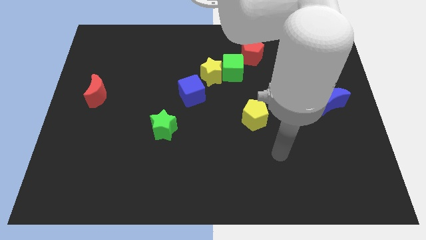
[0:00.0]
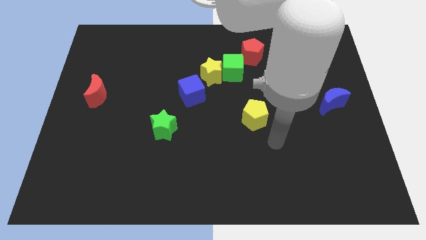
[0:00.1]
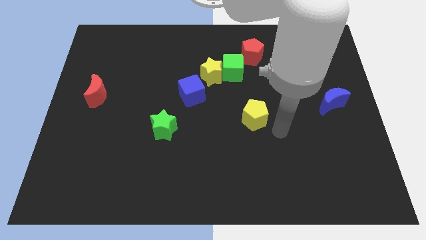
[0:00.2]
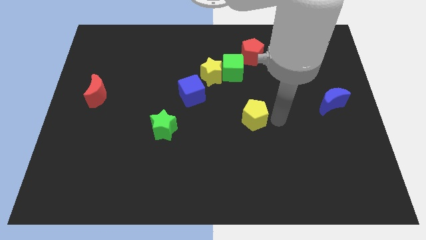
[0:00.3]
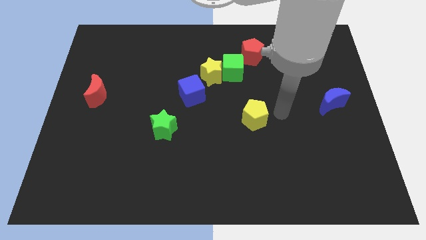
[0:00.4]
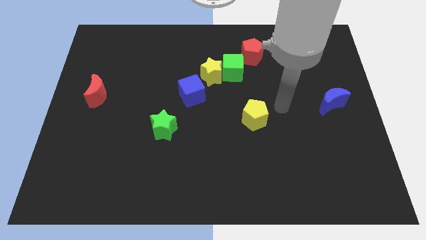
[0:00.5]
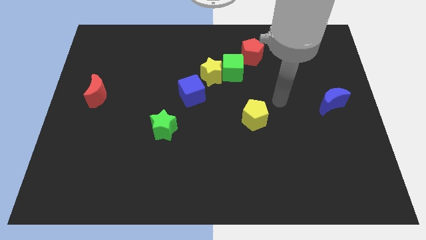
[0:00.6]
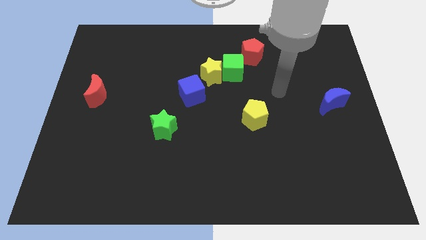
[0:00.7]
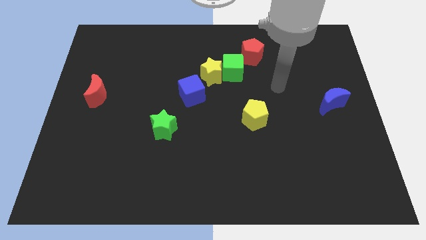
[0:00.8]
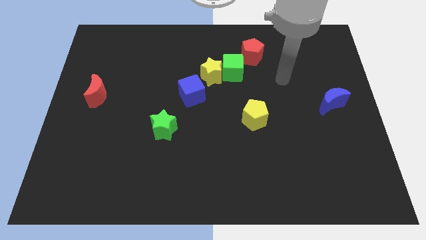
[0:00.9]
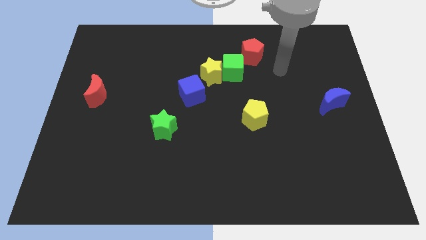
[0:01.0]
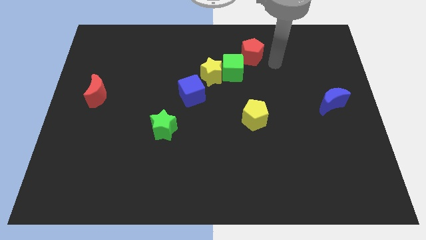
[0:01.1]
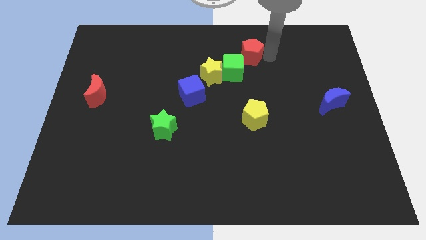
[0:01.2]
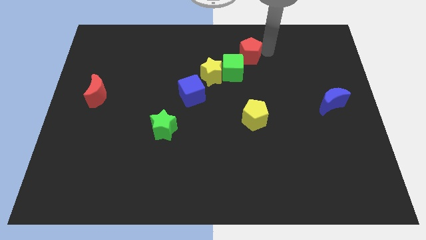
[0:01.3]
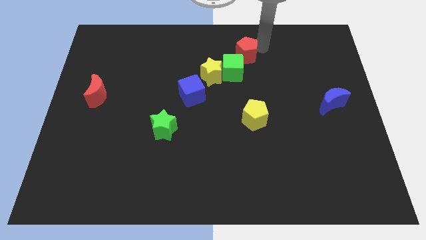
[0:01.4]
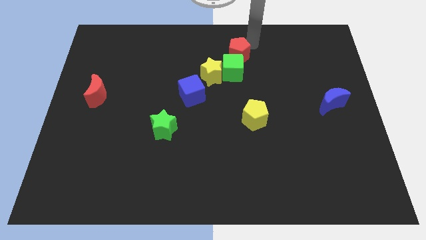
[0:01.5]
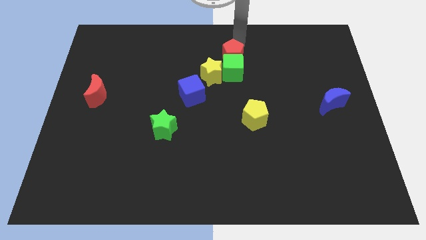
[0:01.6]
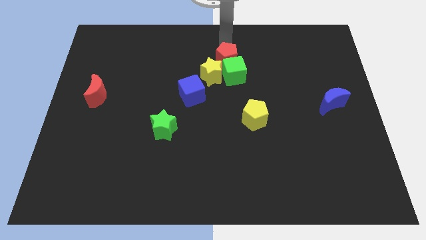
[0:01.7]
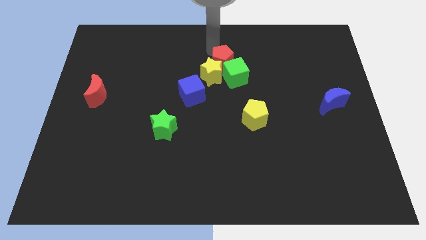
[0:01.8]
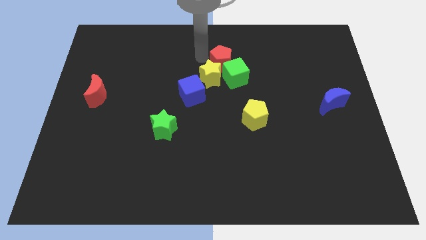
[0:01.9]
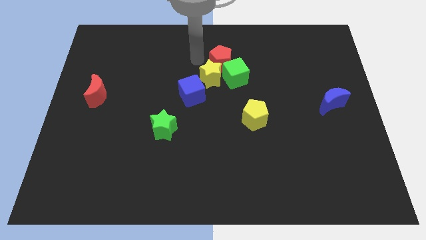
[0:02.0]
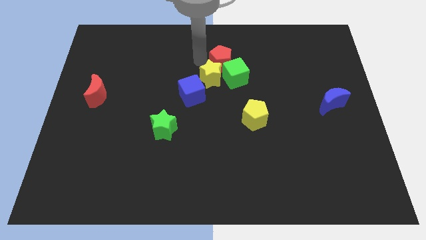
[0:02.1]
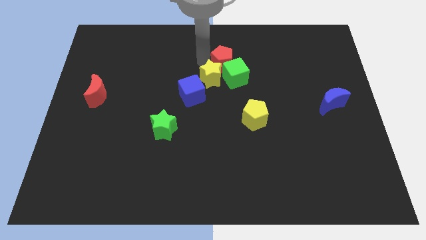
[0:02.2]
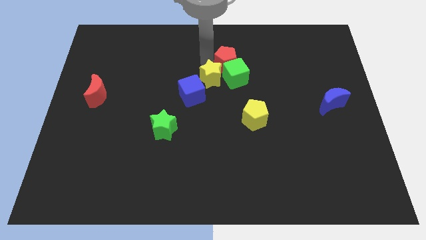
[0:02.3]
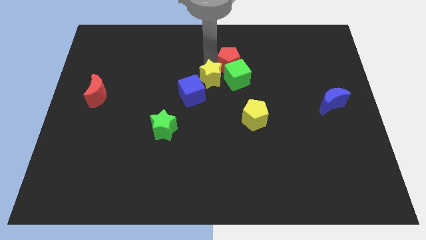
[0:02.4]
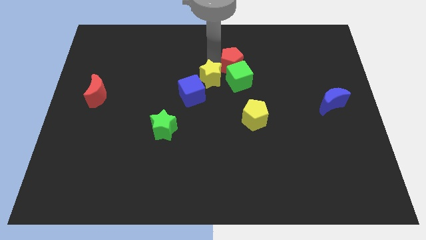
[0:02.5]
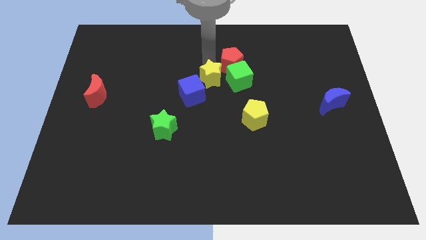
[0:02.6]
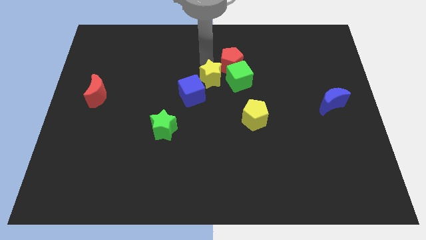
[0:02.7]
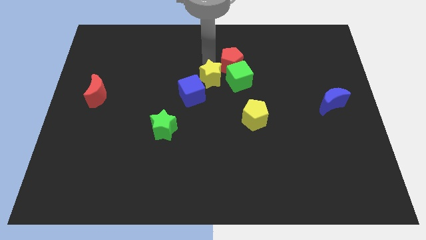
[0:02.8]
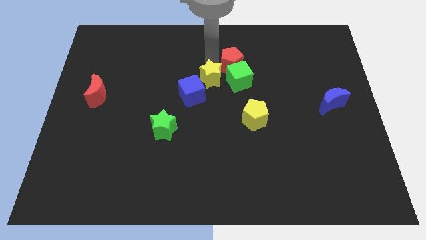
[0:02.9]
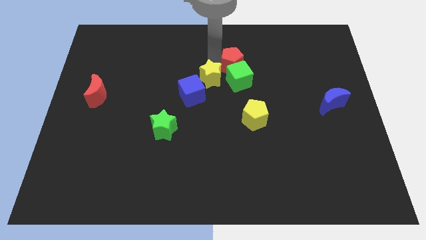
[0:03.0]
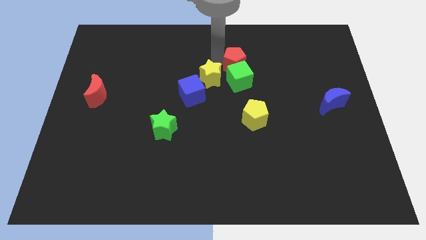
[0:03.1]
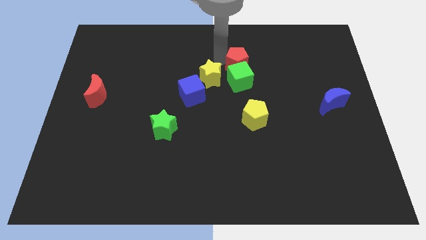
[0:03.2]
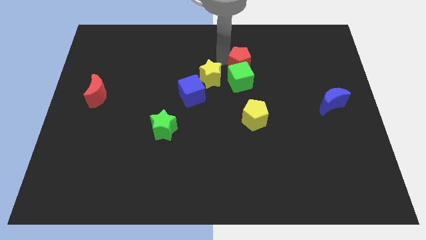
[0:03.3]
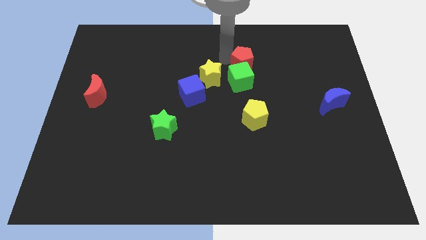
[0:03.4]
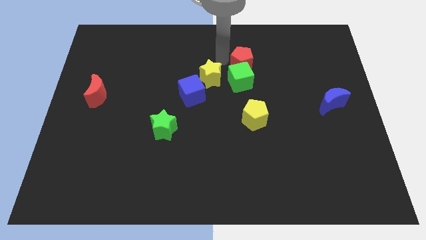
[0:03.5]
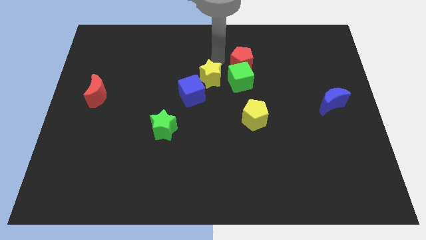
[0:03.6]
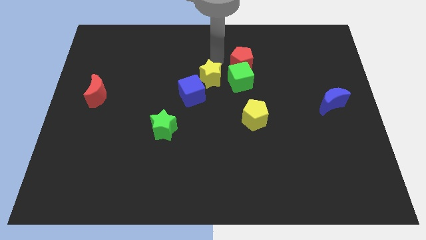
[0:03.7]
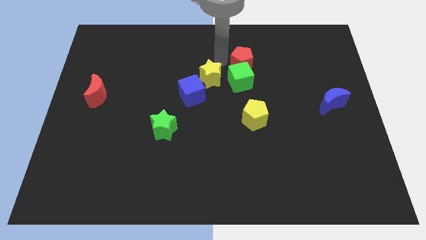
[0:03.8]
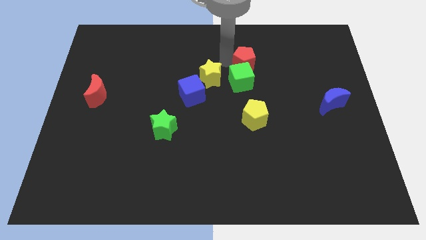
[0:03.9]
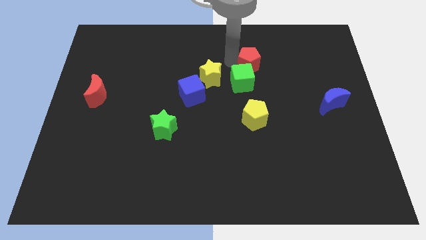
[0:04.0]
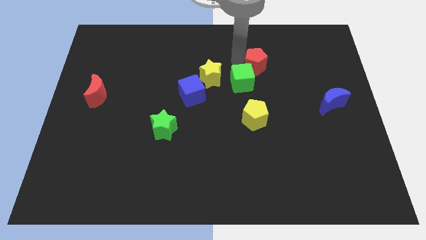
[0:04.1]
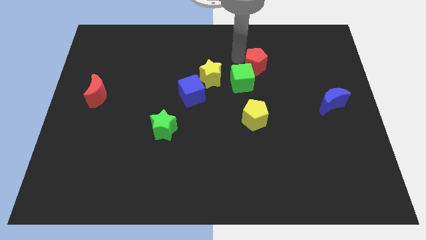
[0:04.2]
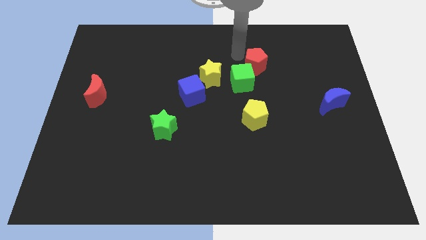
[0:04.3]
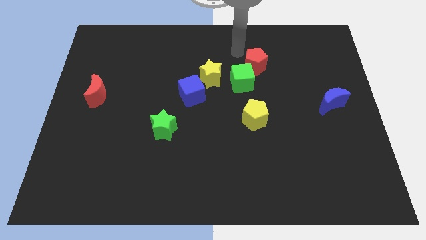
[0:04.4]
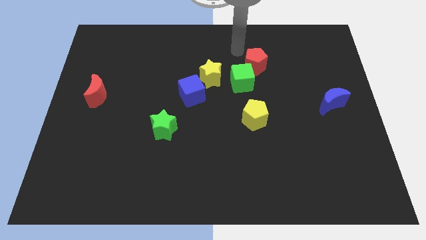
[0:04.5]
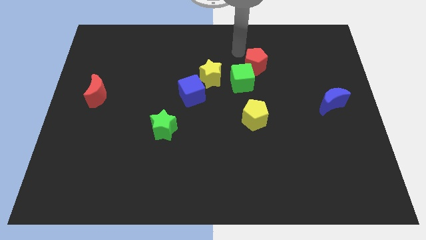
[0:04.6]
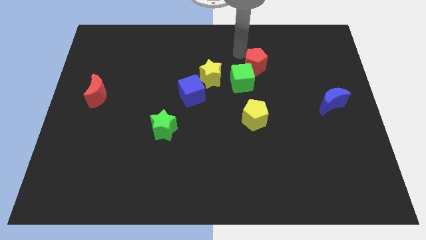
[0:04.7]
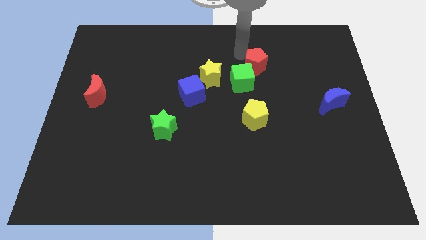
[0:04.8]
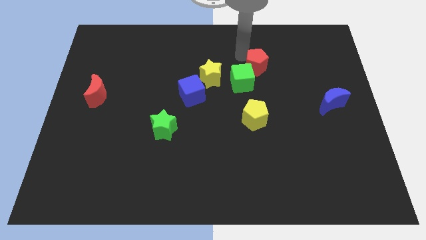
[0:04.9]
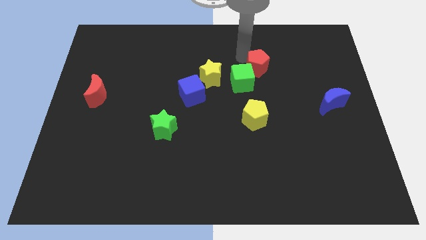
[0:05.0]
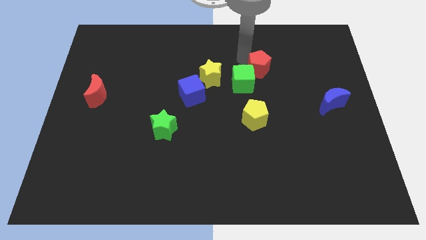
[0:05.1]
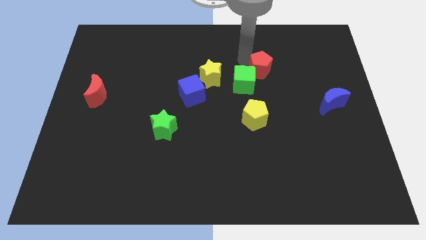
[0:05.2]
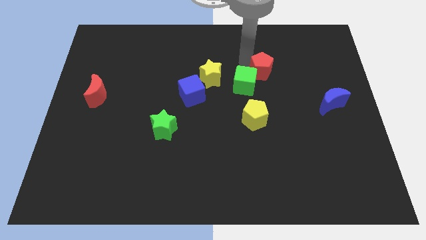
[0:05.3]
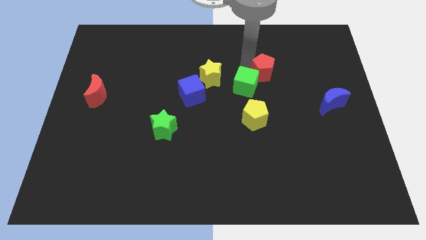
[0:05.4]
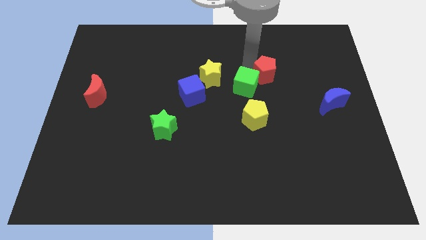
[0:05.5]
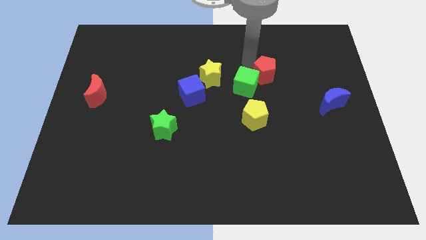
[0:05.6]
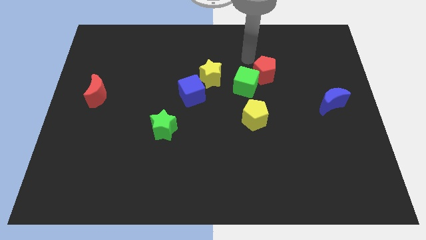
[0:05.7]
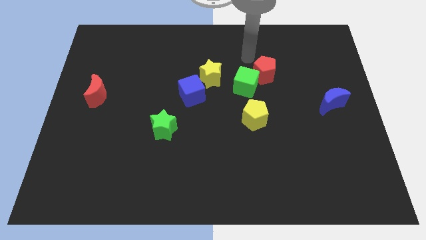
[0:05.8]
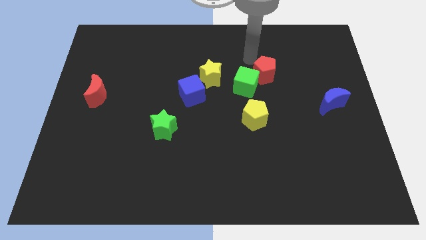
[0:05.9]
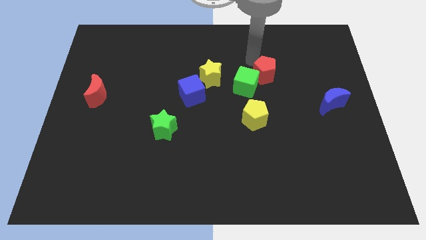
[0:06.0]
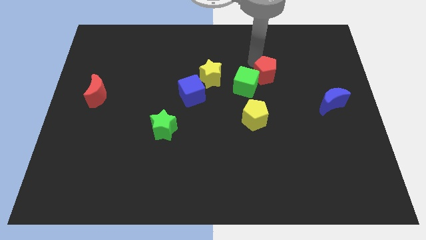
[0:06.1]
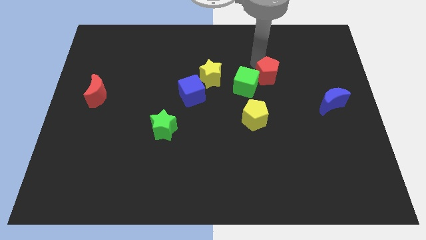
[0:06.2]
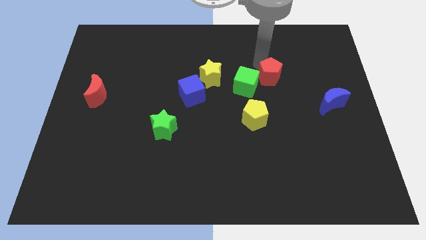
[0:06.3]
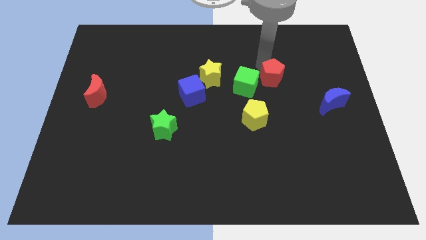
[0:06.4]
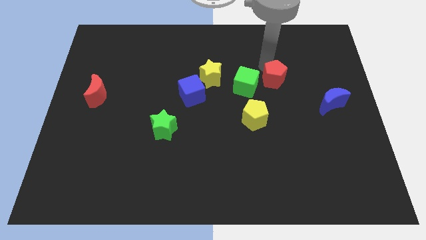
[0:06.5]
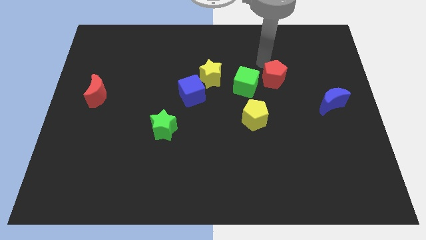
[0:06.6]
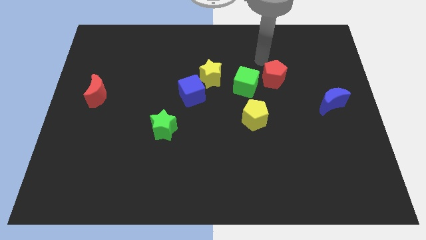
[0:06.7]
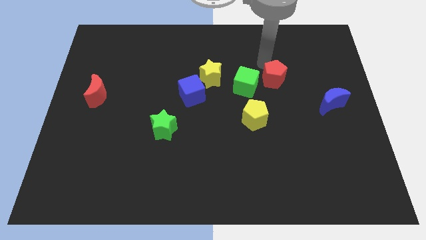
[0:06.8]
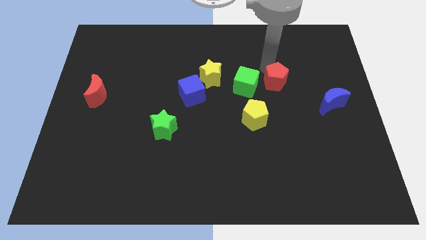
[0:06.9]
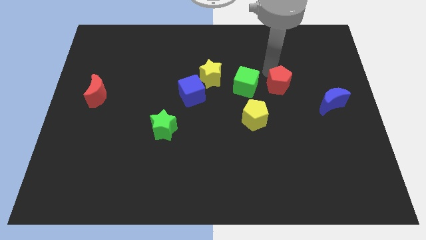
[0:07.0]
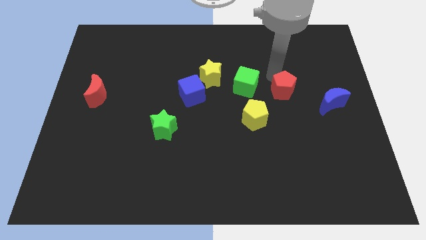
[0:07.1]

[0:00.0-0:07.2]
move the red pentagon to the left of the blue moon

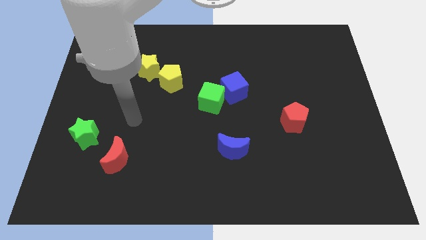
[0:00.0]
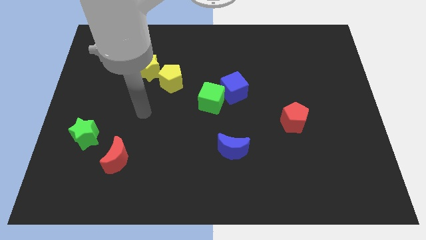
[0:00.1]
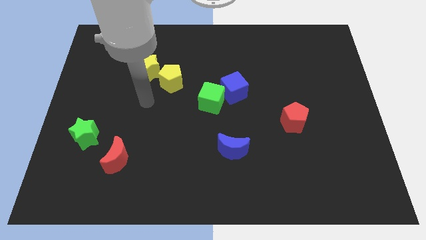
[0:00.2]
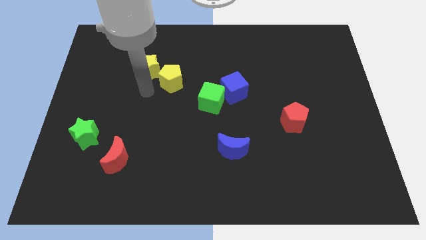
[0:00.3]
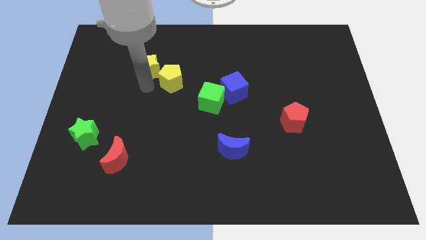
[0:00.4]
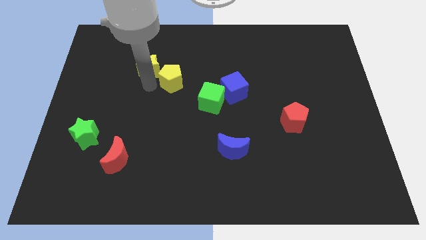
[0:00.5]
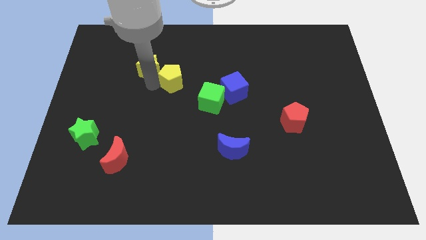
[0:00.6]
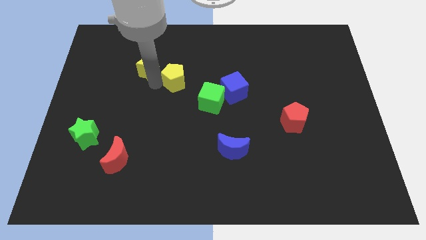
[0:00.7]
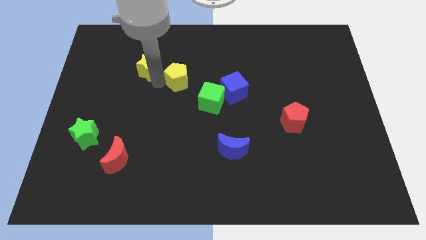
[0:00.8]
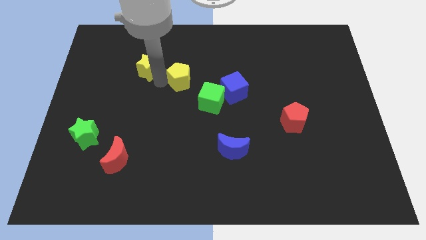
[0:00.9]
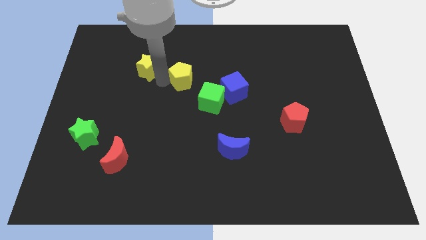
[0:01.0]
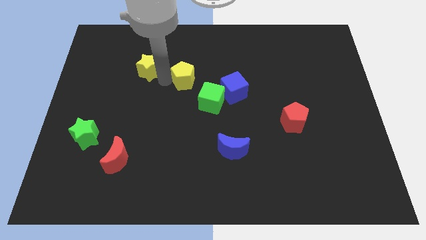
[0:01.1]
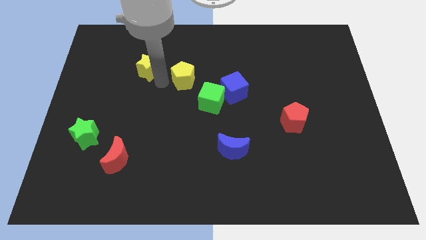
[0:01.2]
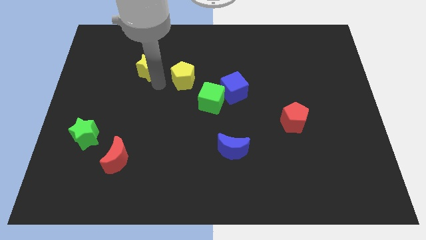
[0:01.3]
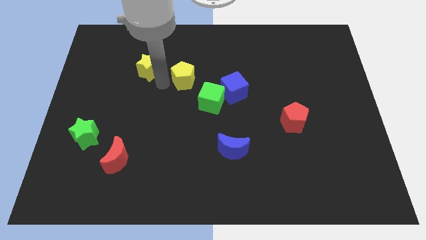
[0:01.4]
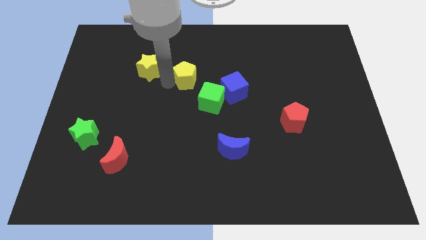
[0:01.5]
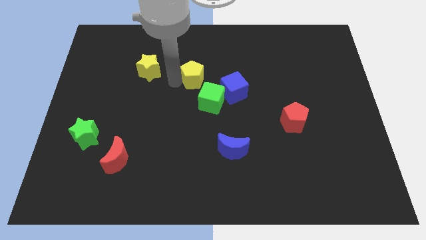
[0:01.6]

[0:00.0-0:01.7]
move the yellow pentagon to the top left of the blue cube
